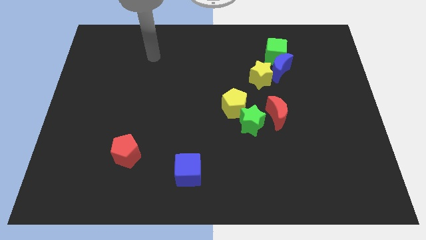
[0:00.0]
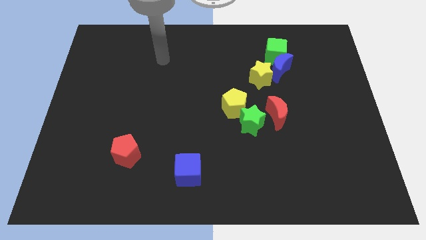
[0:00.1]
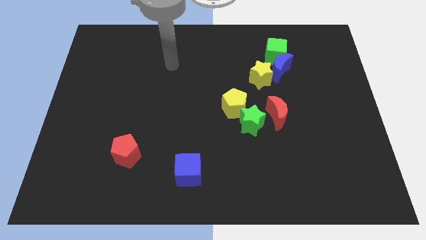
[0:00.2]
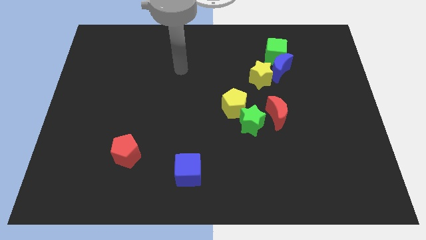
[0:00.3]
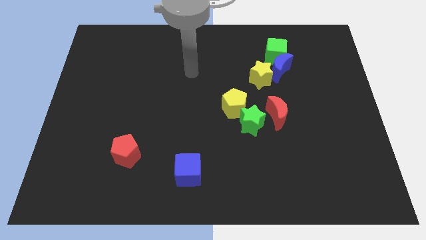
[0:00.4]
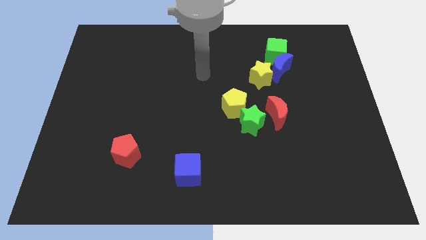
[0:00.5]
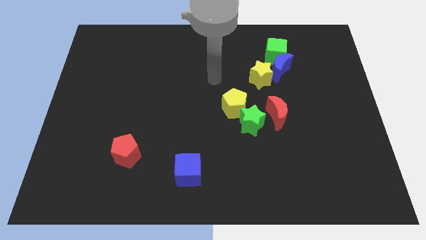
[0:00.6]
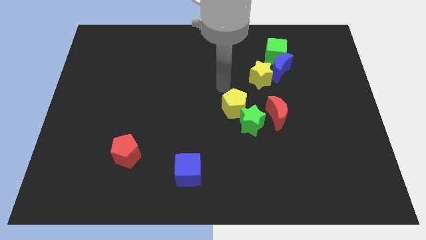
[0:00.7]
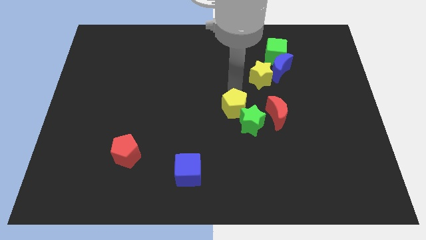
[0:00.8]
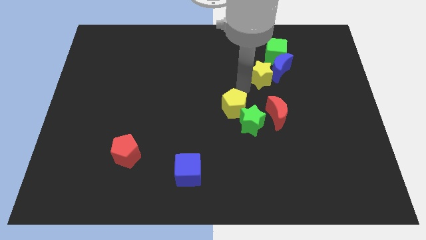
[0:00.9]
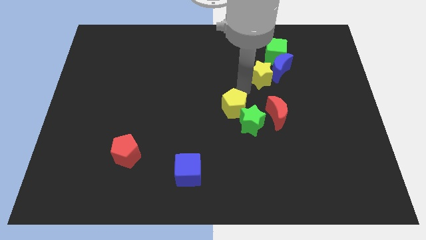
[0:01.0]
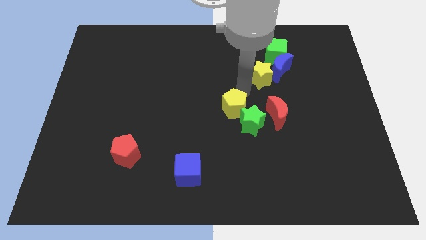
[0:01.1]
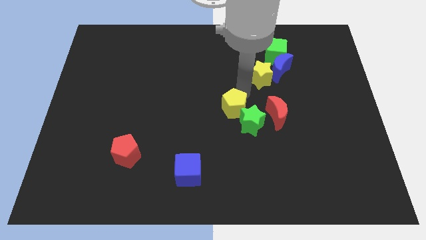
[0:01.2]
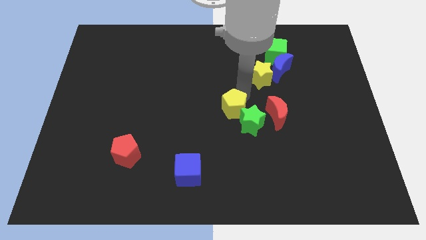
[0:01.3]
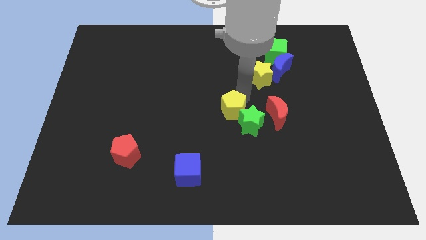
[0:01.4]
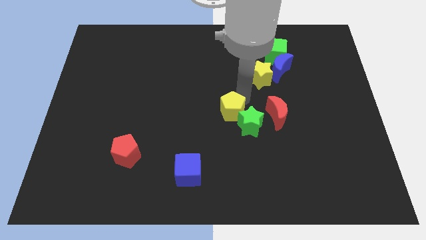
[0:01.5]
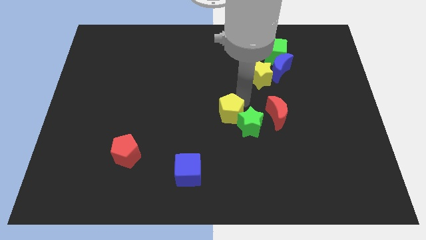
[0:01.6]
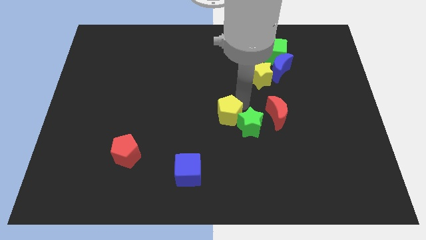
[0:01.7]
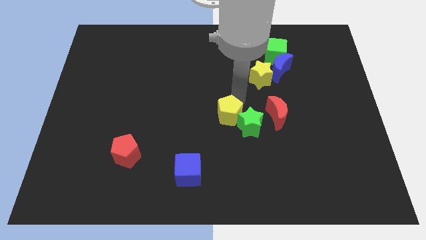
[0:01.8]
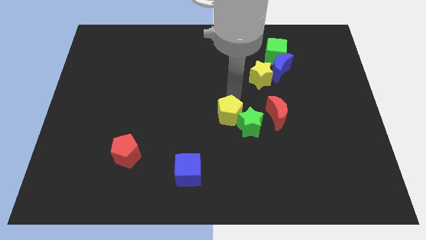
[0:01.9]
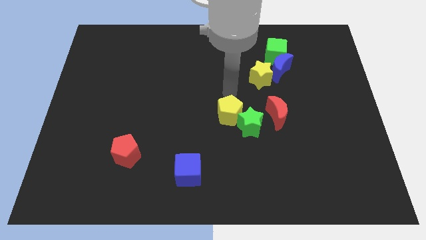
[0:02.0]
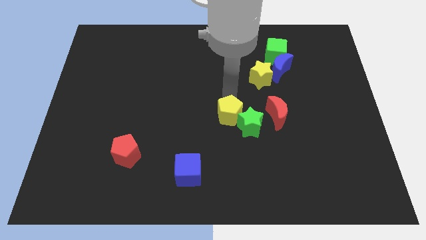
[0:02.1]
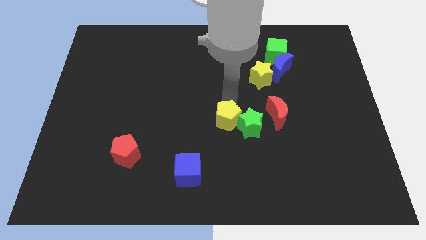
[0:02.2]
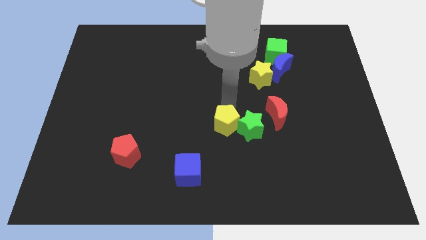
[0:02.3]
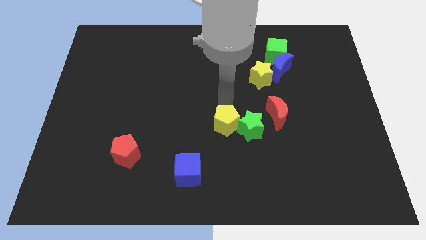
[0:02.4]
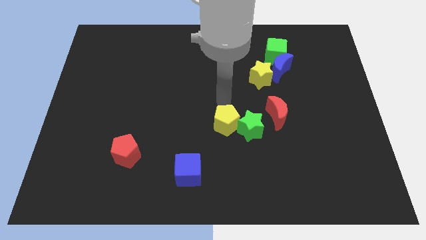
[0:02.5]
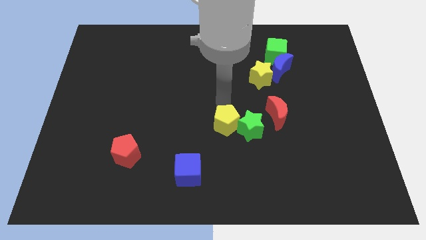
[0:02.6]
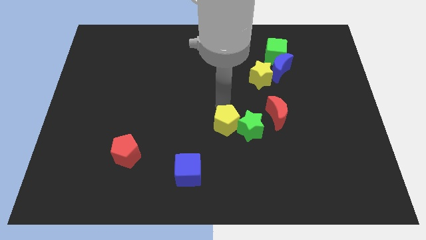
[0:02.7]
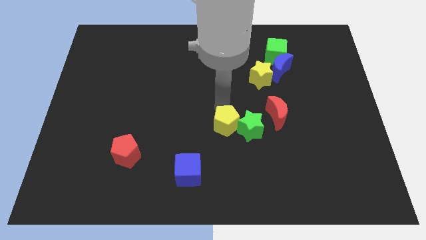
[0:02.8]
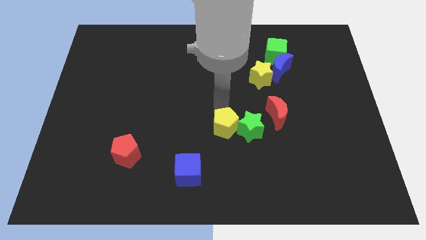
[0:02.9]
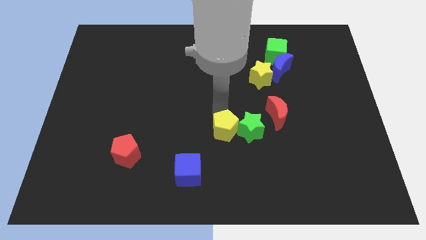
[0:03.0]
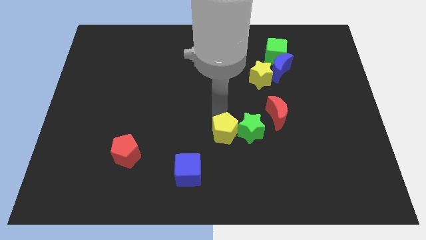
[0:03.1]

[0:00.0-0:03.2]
slide the yellow pentagon down a bit

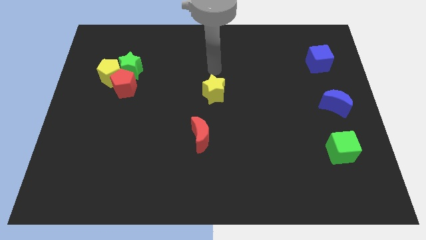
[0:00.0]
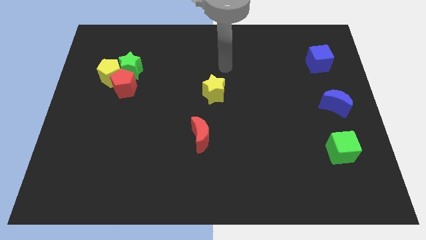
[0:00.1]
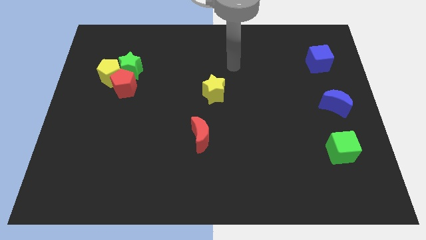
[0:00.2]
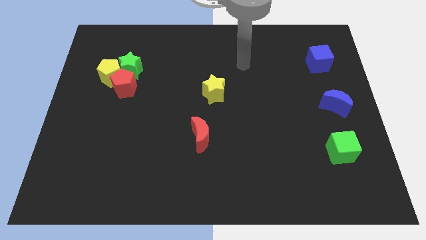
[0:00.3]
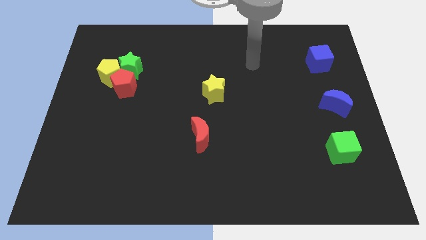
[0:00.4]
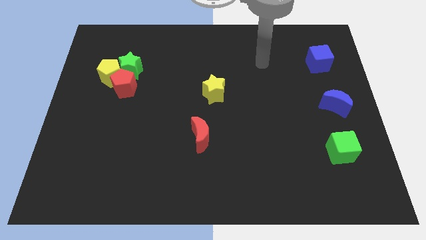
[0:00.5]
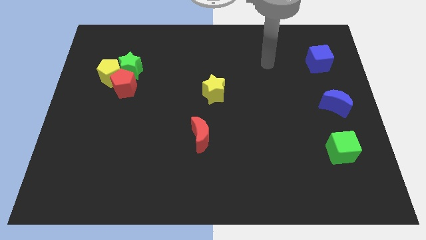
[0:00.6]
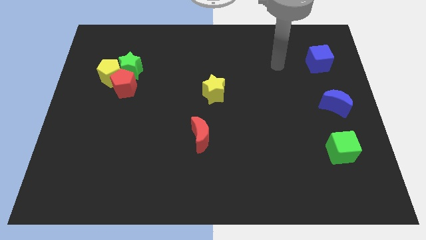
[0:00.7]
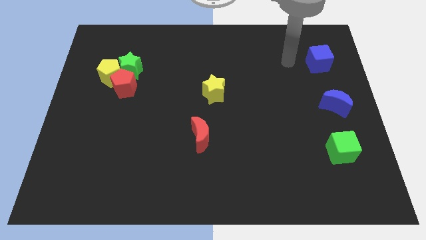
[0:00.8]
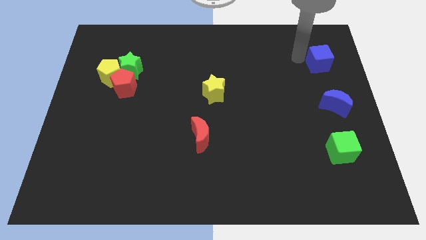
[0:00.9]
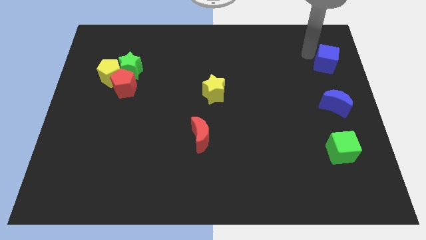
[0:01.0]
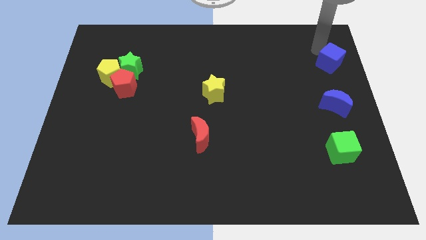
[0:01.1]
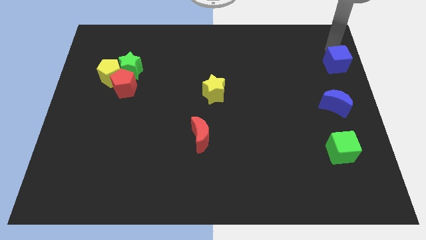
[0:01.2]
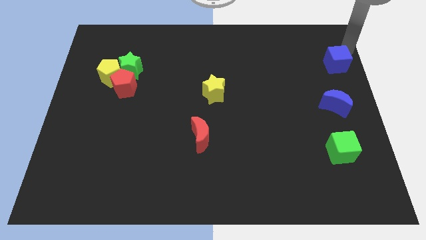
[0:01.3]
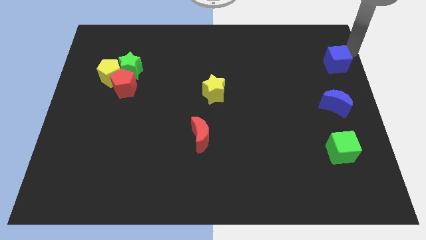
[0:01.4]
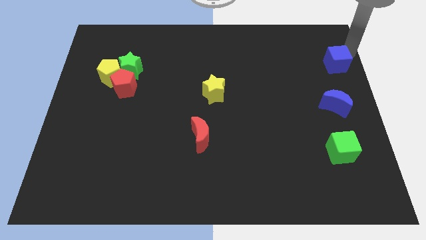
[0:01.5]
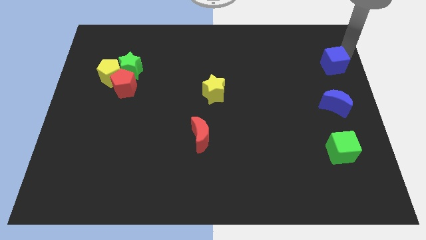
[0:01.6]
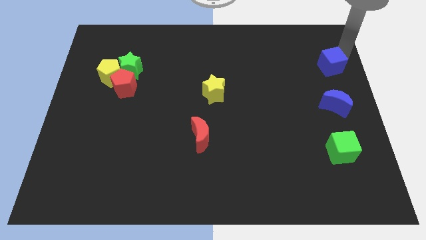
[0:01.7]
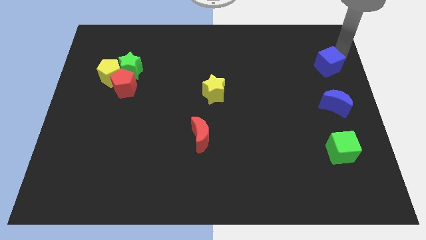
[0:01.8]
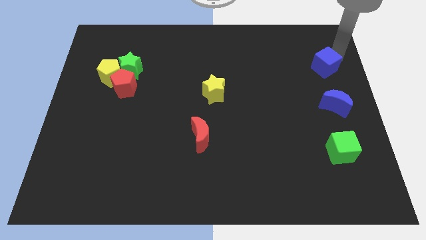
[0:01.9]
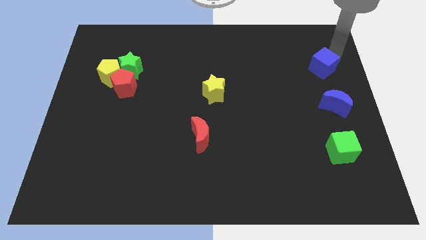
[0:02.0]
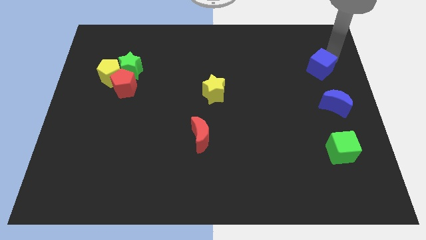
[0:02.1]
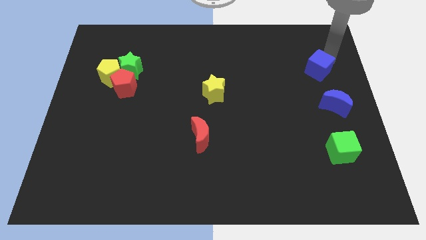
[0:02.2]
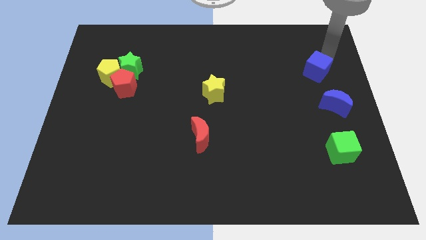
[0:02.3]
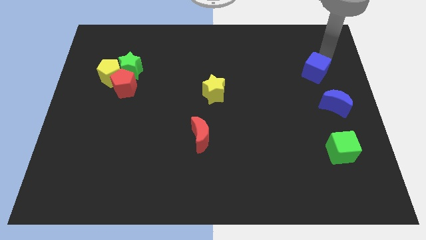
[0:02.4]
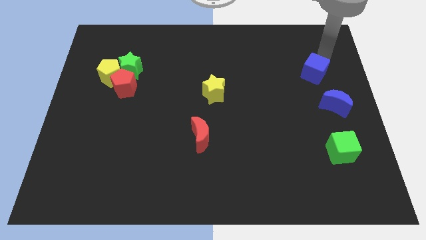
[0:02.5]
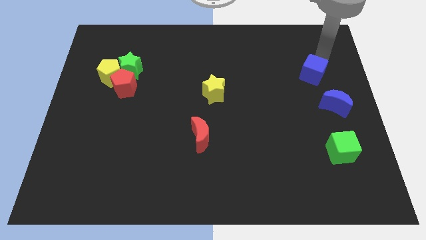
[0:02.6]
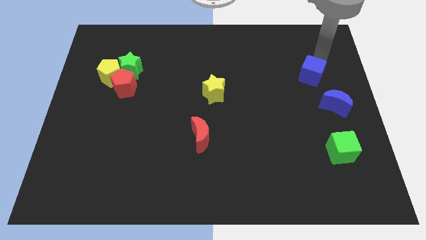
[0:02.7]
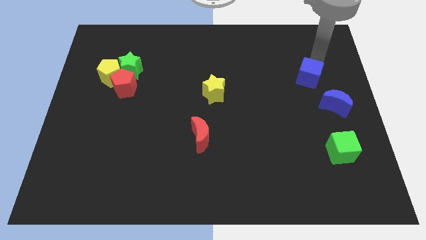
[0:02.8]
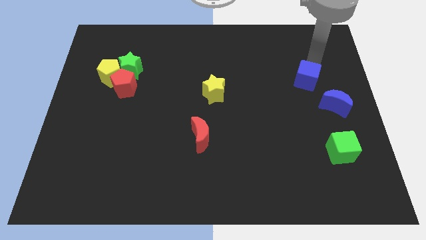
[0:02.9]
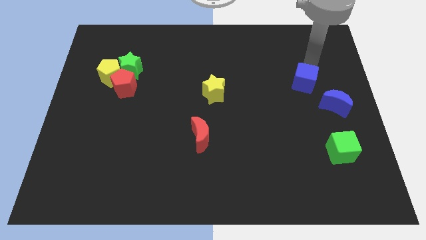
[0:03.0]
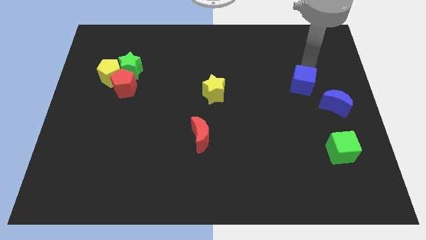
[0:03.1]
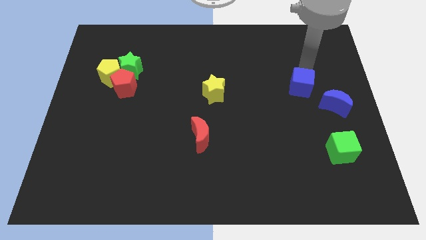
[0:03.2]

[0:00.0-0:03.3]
push the blue cube down somewhat

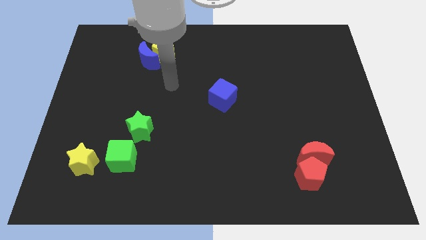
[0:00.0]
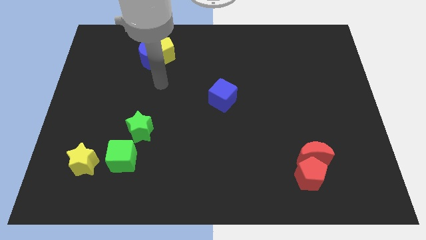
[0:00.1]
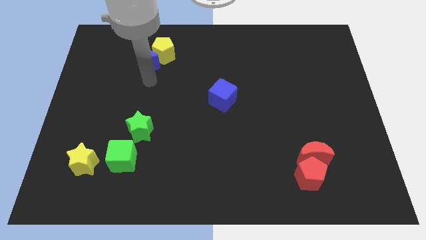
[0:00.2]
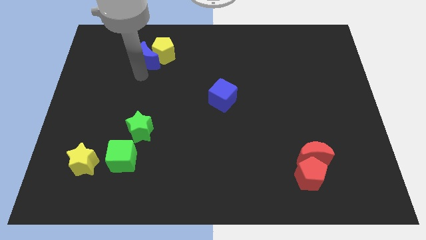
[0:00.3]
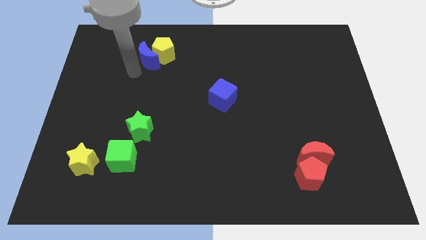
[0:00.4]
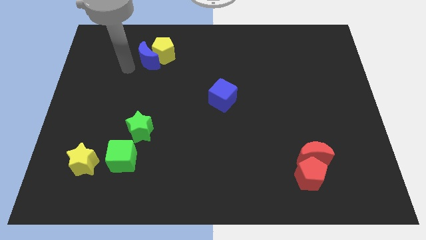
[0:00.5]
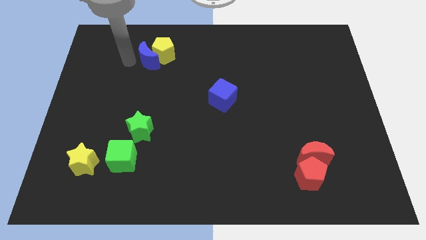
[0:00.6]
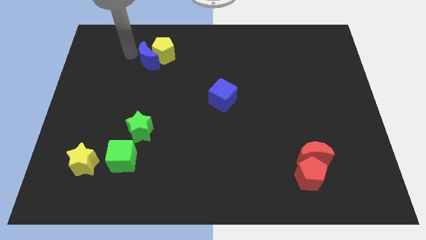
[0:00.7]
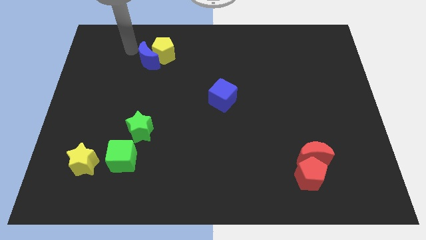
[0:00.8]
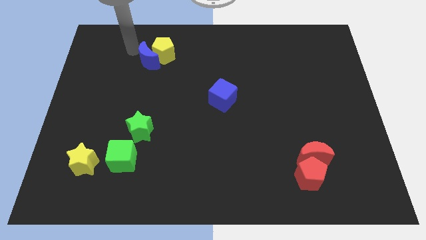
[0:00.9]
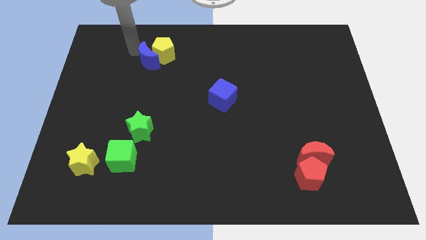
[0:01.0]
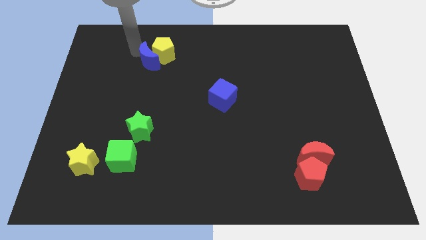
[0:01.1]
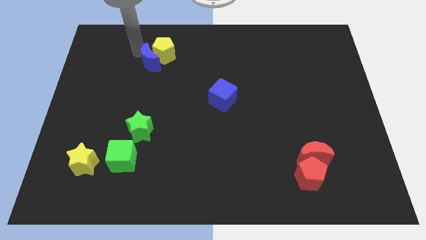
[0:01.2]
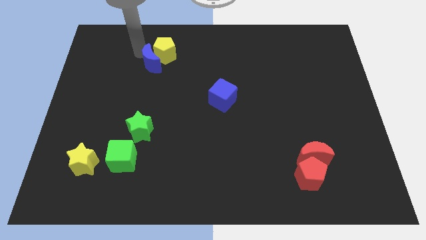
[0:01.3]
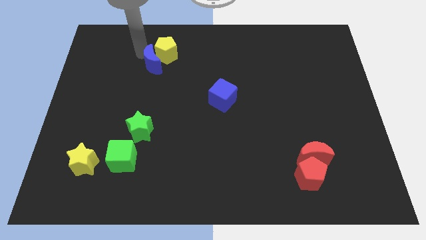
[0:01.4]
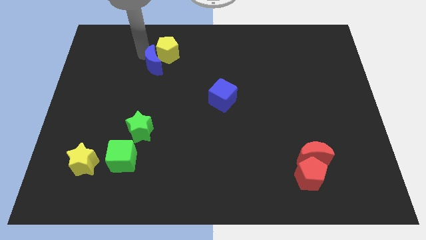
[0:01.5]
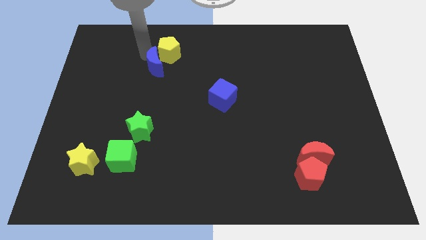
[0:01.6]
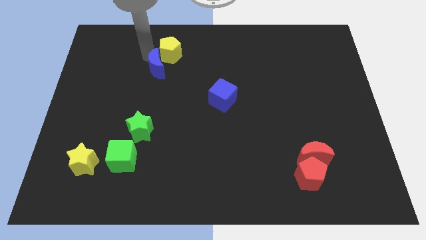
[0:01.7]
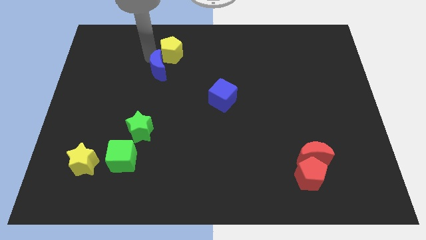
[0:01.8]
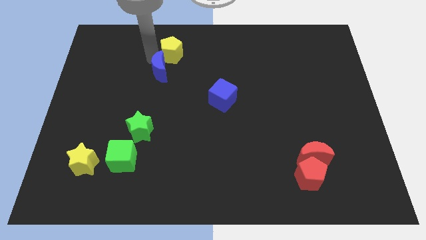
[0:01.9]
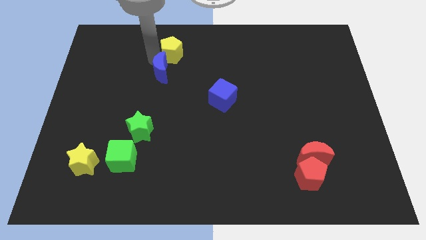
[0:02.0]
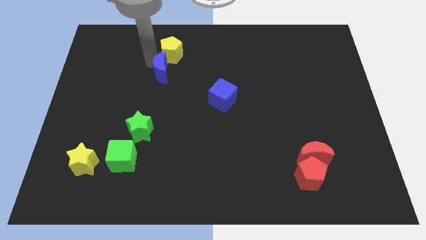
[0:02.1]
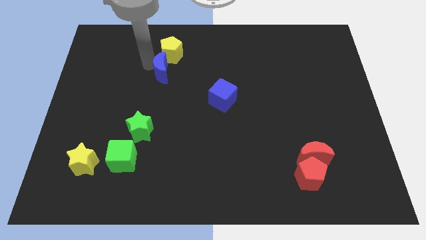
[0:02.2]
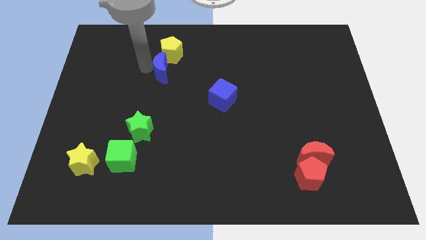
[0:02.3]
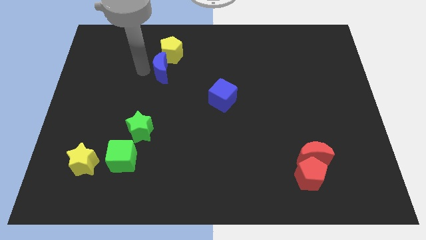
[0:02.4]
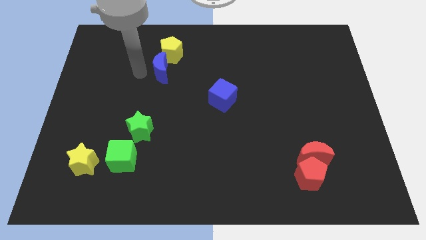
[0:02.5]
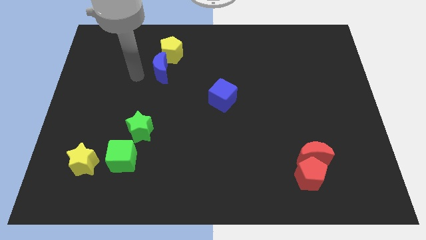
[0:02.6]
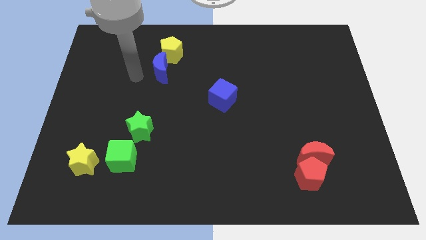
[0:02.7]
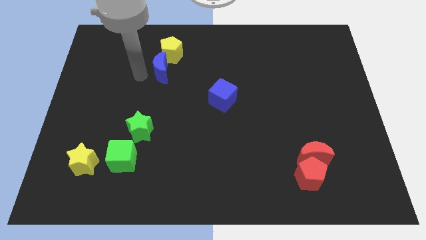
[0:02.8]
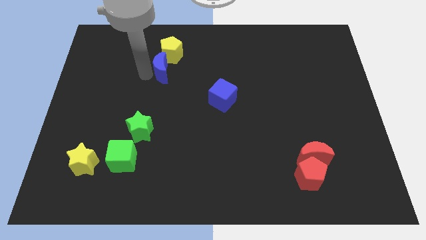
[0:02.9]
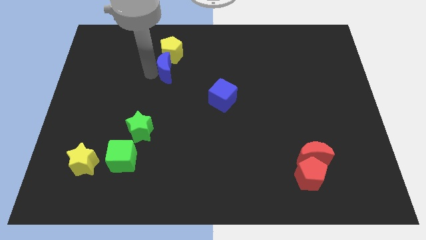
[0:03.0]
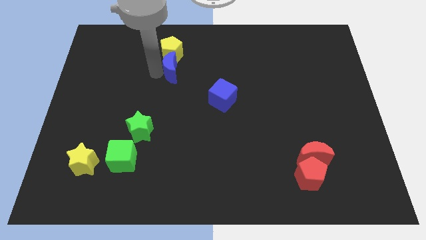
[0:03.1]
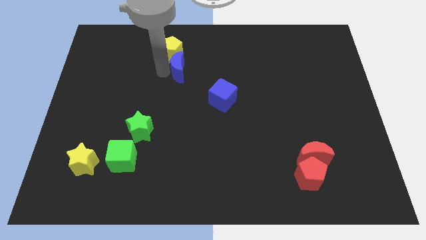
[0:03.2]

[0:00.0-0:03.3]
slide the blue moon to the right a little bit
